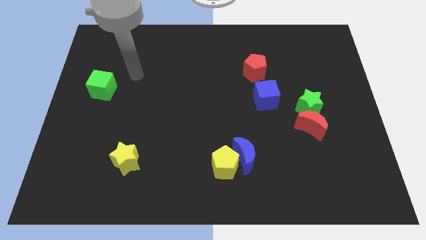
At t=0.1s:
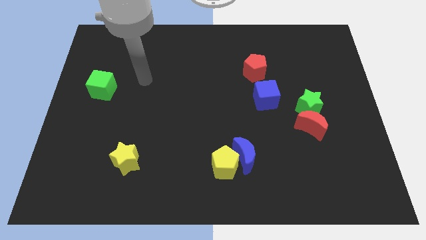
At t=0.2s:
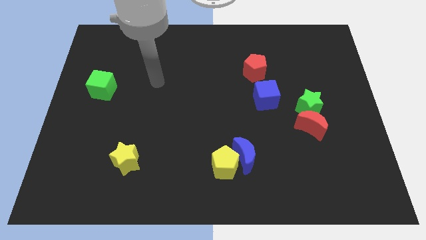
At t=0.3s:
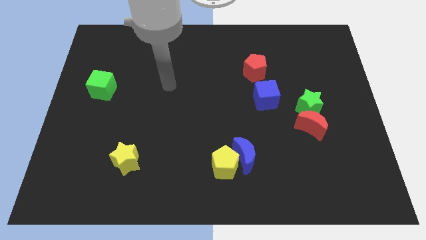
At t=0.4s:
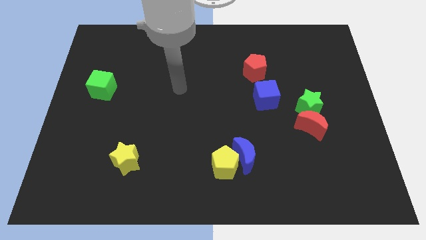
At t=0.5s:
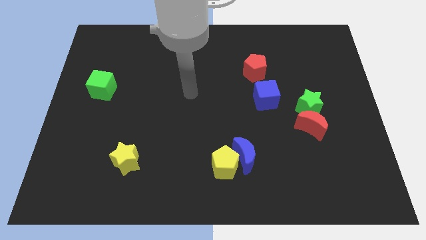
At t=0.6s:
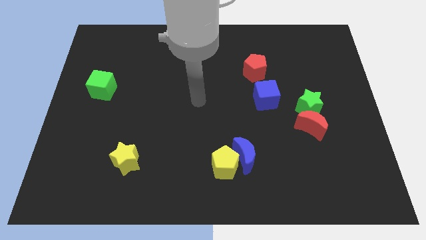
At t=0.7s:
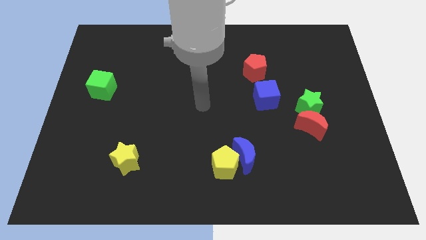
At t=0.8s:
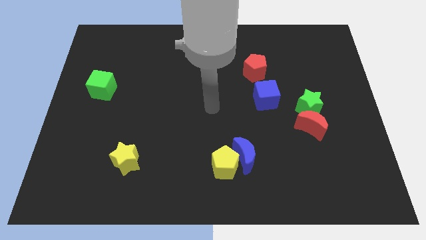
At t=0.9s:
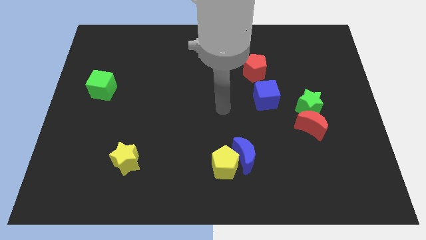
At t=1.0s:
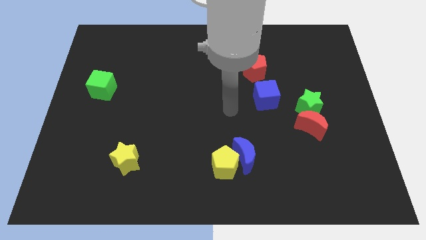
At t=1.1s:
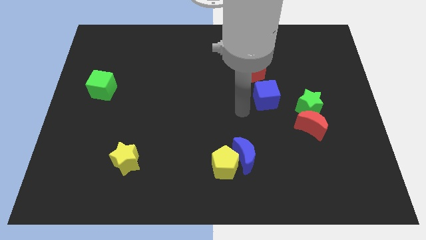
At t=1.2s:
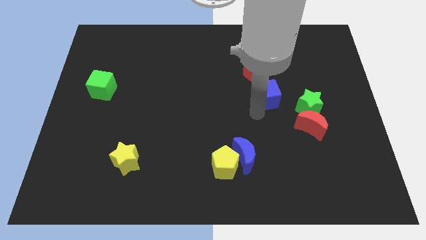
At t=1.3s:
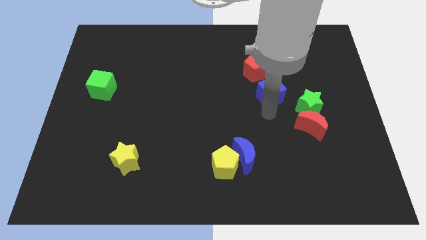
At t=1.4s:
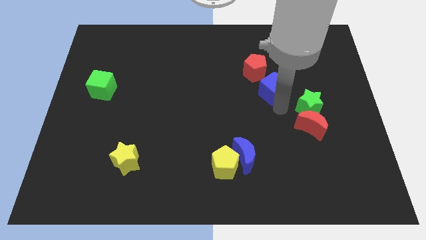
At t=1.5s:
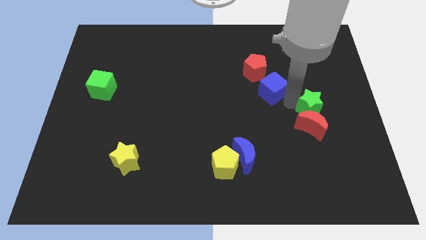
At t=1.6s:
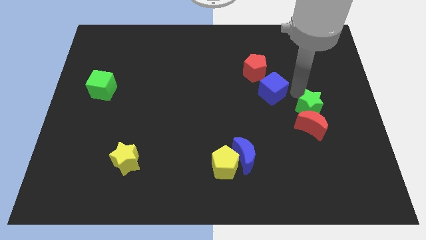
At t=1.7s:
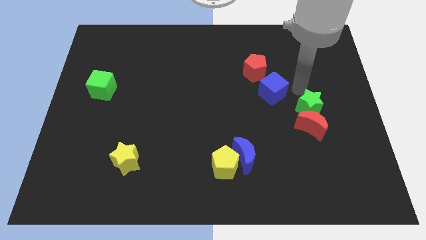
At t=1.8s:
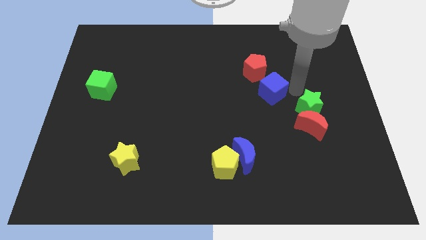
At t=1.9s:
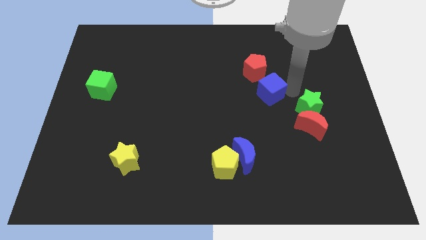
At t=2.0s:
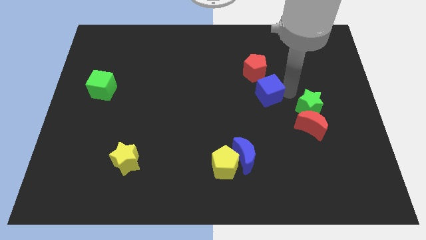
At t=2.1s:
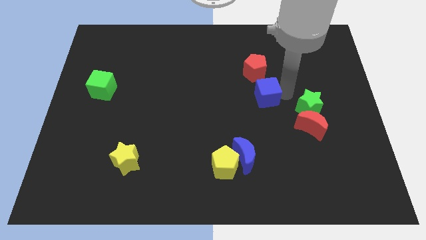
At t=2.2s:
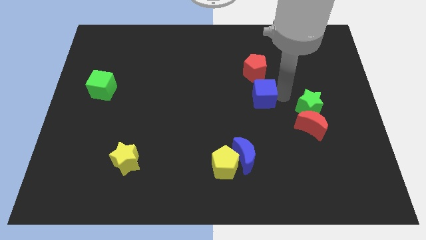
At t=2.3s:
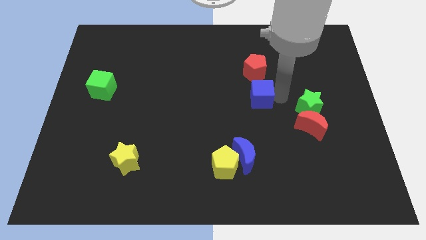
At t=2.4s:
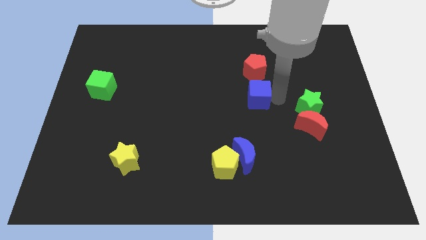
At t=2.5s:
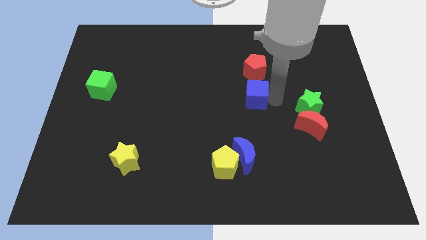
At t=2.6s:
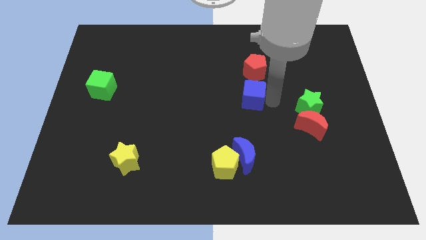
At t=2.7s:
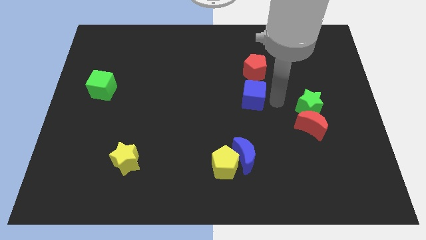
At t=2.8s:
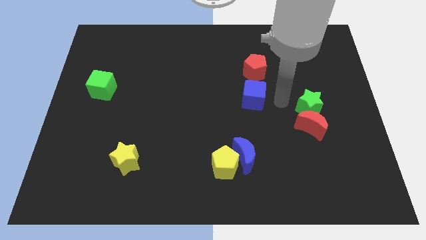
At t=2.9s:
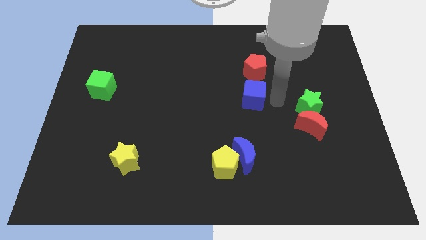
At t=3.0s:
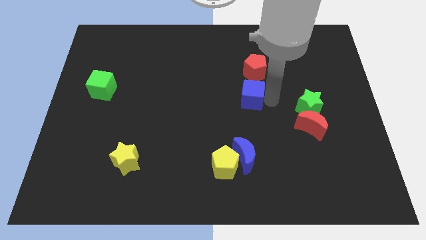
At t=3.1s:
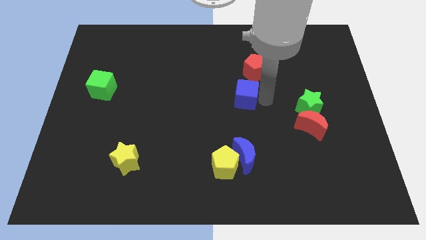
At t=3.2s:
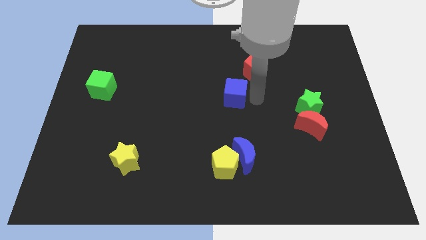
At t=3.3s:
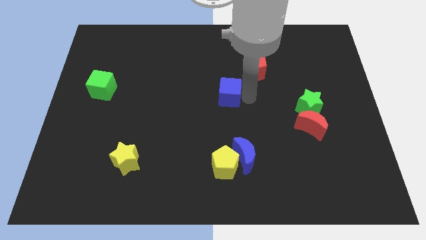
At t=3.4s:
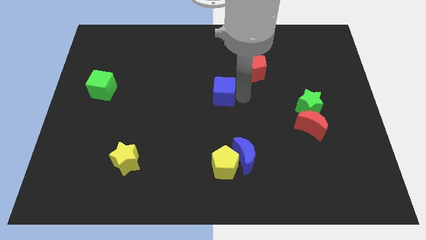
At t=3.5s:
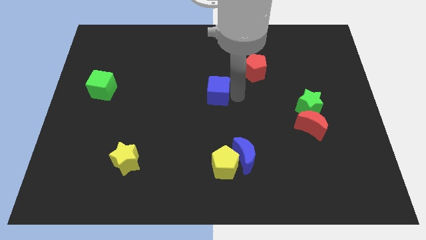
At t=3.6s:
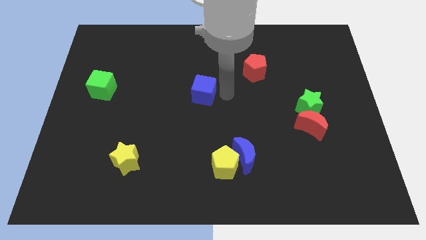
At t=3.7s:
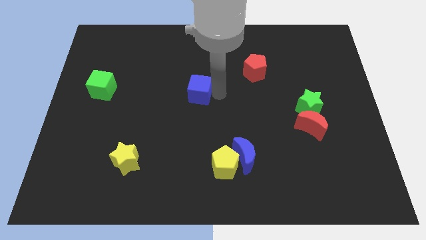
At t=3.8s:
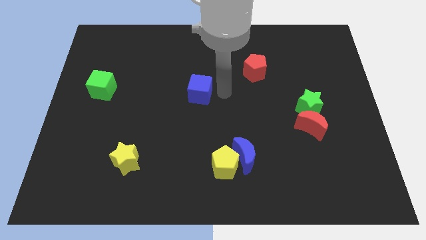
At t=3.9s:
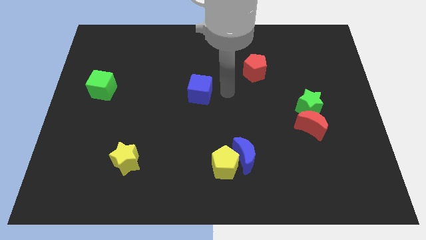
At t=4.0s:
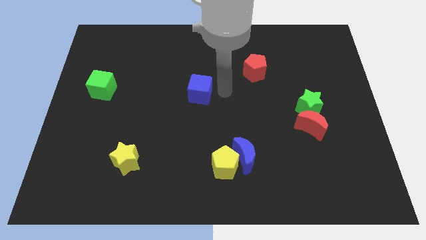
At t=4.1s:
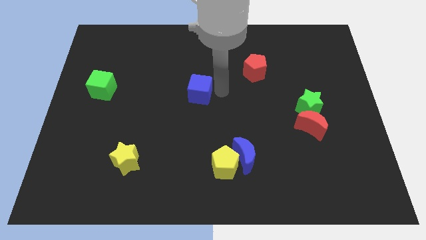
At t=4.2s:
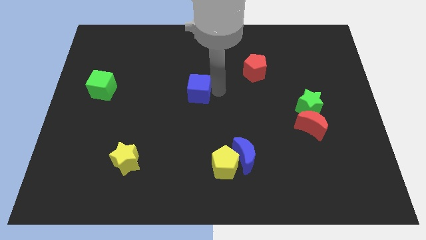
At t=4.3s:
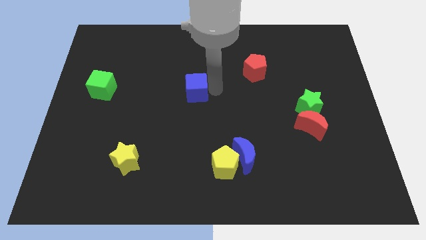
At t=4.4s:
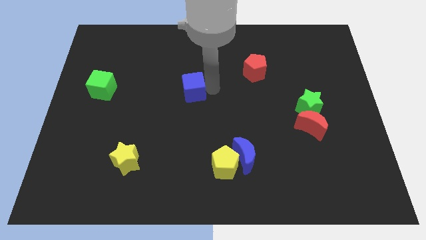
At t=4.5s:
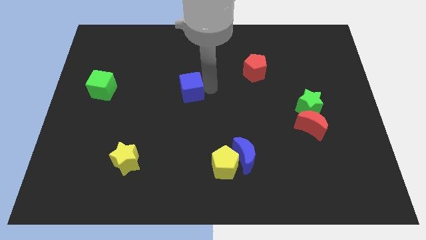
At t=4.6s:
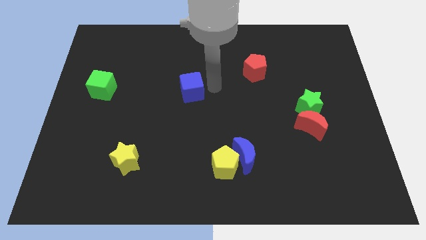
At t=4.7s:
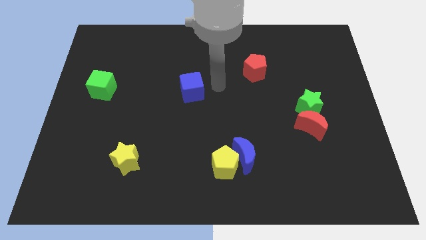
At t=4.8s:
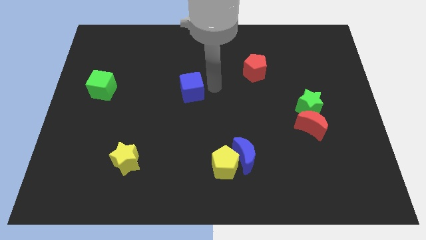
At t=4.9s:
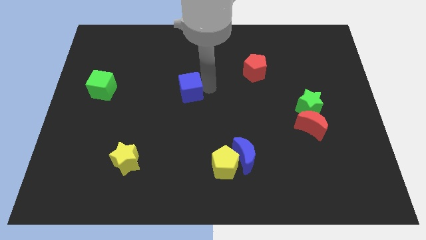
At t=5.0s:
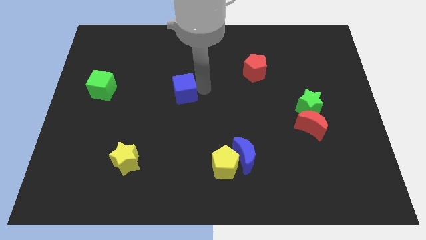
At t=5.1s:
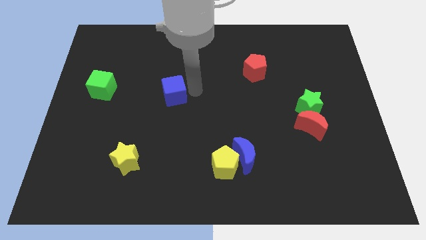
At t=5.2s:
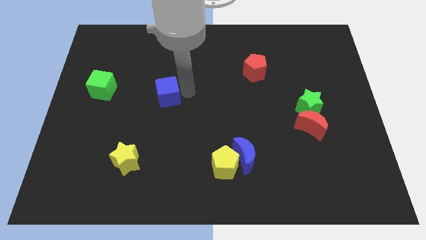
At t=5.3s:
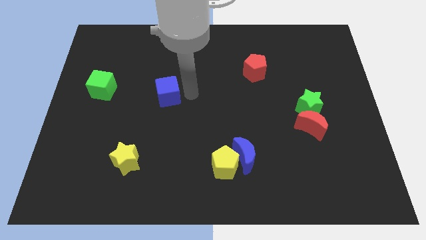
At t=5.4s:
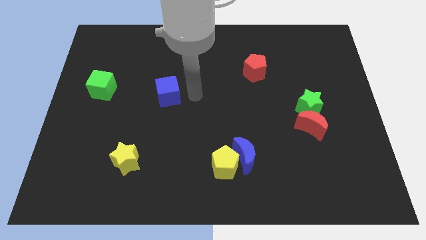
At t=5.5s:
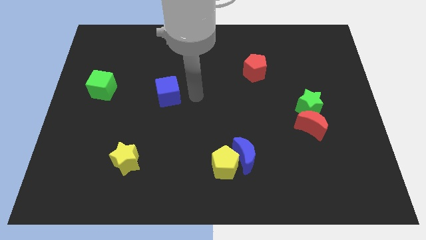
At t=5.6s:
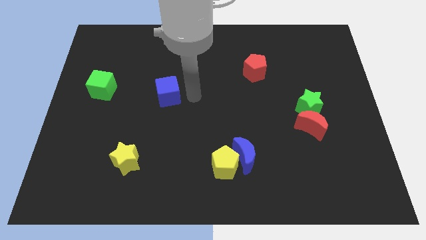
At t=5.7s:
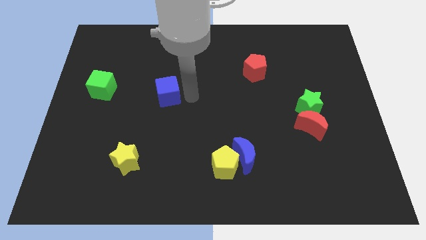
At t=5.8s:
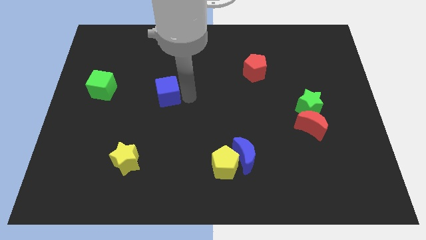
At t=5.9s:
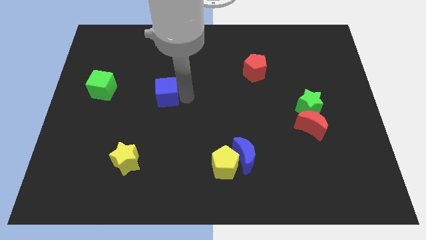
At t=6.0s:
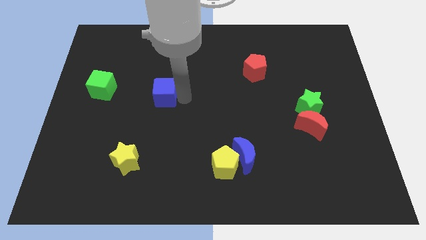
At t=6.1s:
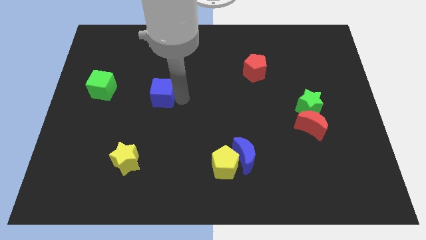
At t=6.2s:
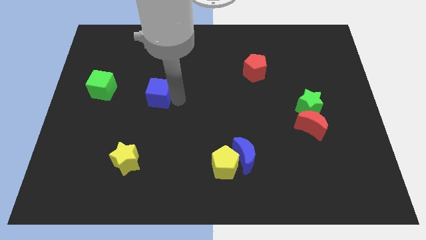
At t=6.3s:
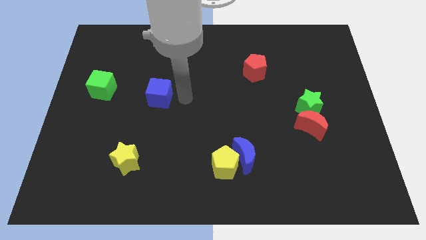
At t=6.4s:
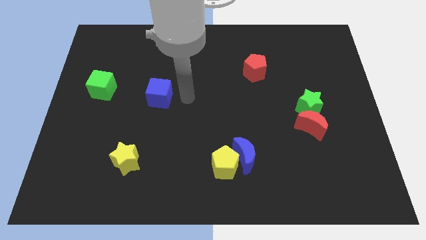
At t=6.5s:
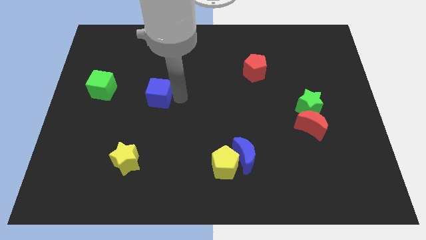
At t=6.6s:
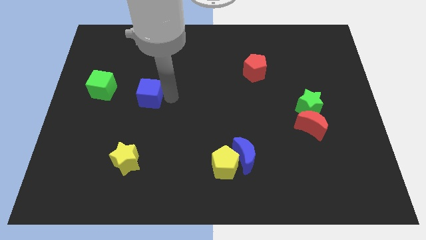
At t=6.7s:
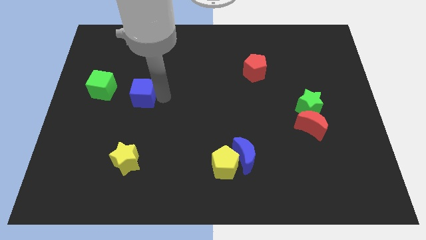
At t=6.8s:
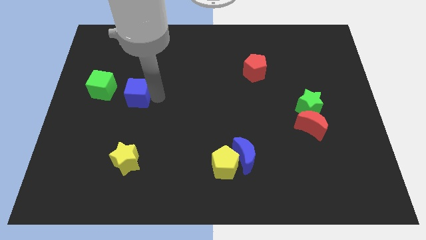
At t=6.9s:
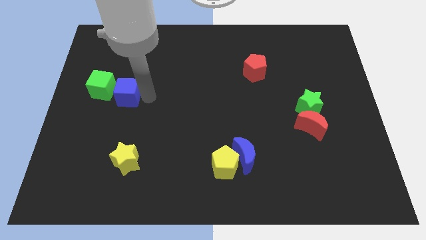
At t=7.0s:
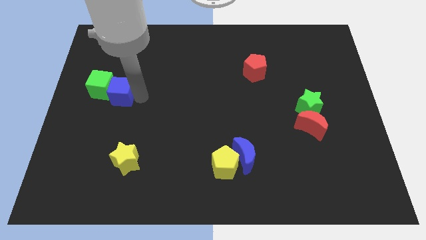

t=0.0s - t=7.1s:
put the blue cube next to the green cube
